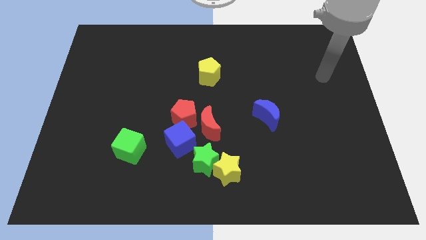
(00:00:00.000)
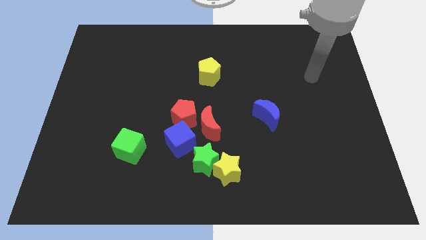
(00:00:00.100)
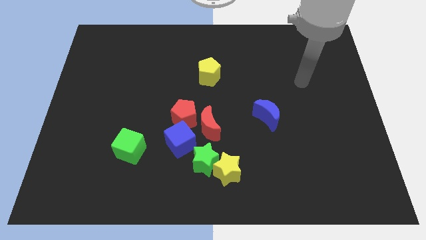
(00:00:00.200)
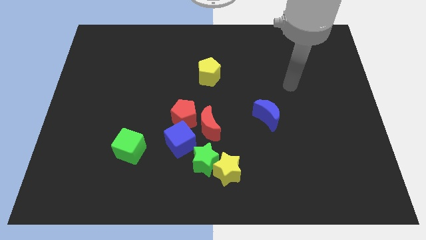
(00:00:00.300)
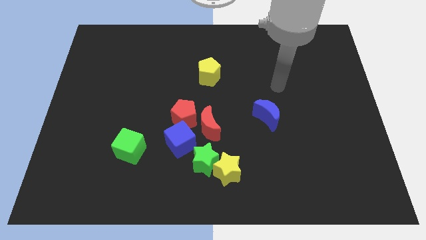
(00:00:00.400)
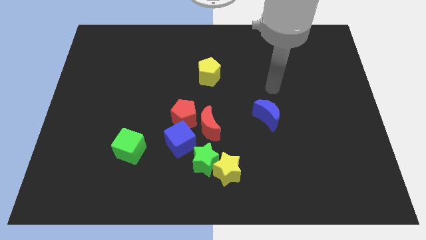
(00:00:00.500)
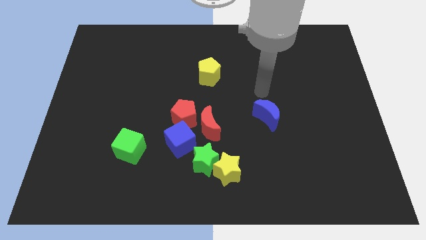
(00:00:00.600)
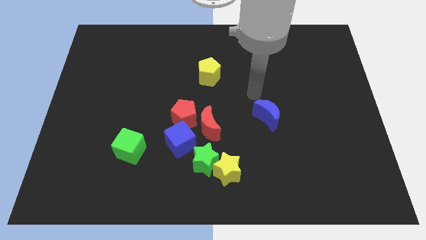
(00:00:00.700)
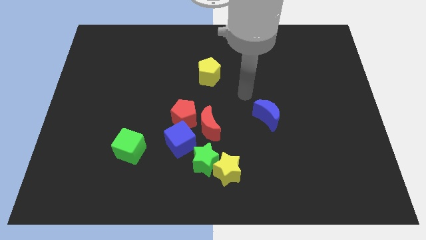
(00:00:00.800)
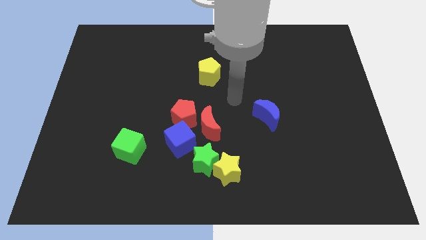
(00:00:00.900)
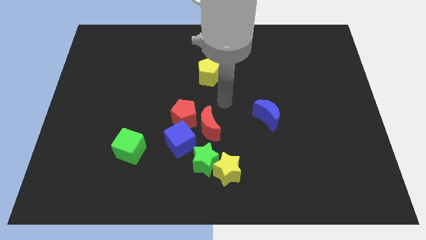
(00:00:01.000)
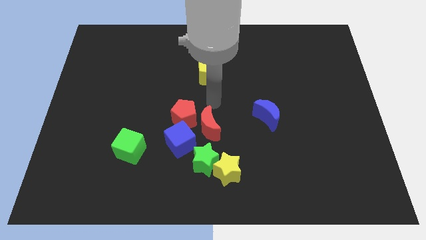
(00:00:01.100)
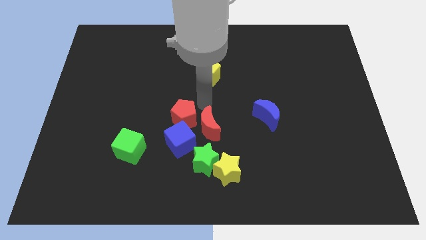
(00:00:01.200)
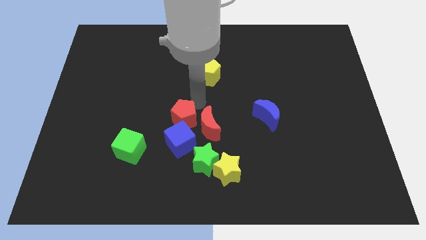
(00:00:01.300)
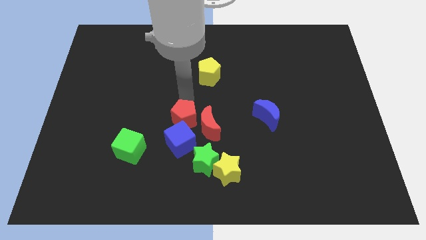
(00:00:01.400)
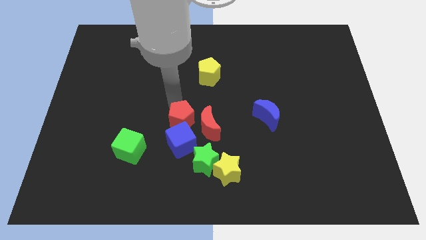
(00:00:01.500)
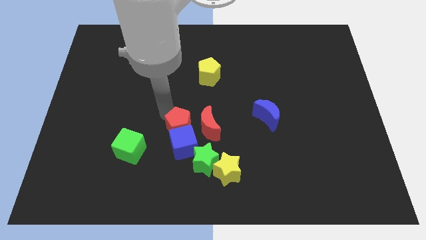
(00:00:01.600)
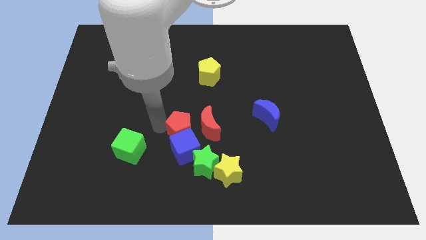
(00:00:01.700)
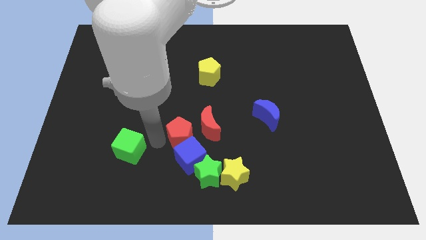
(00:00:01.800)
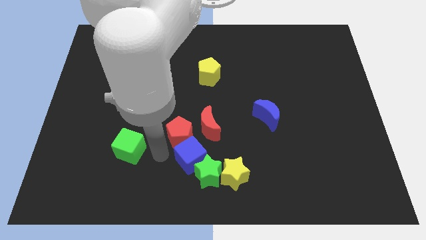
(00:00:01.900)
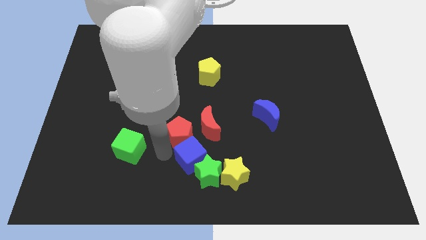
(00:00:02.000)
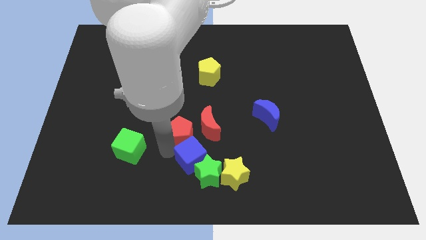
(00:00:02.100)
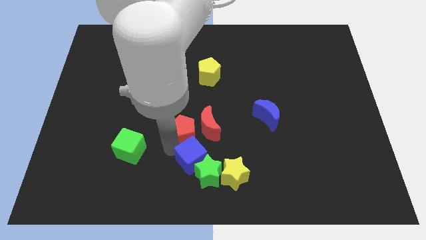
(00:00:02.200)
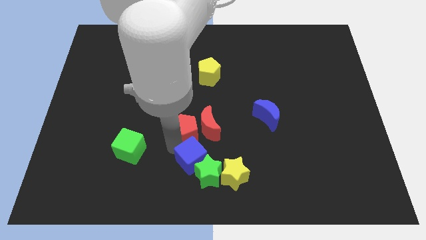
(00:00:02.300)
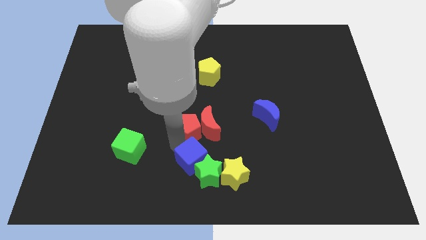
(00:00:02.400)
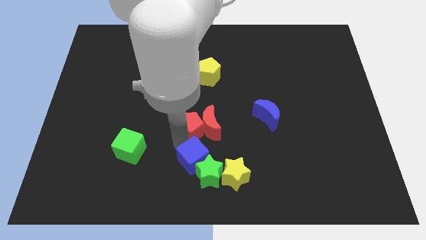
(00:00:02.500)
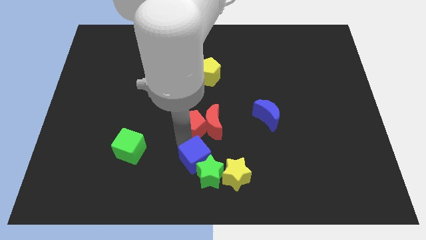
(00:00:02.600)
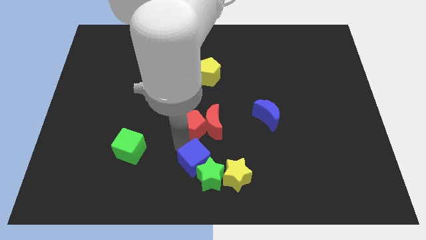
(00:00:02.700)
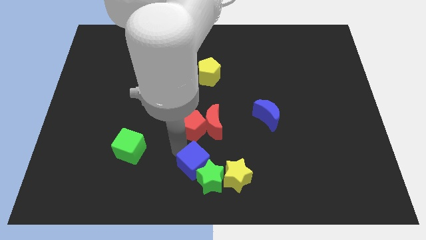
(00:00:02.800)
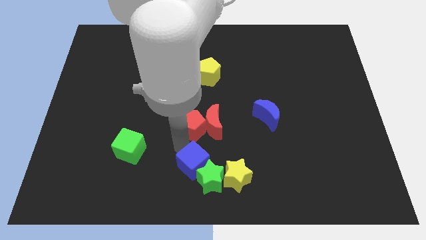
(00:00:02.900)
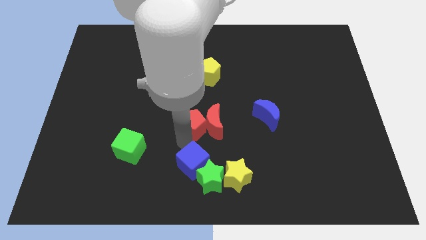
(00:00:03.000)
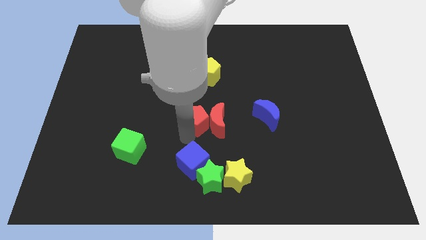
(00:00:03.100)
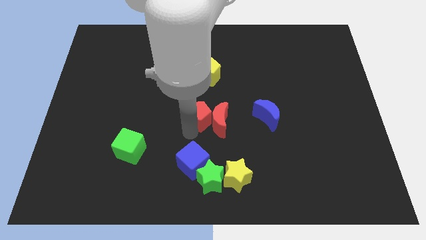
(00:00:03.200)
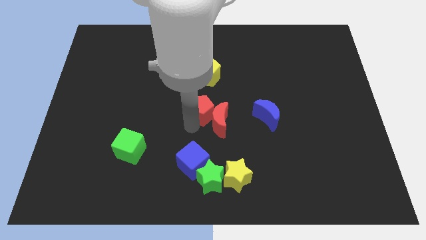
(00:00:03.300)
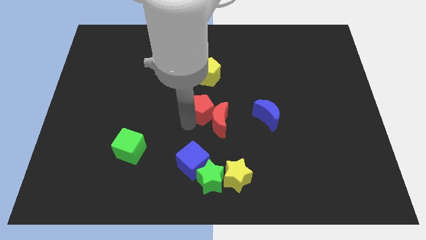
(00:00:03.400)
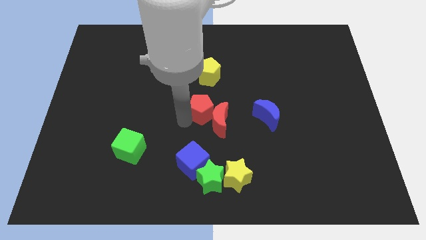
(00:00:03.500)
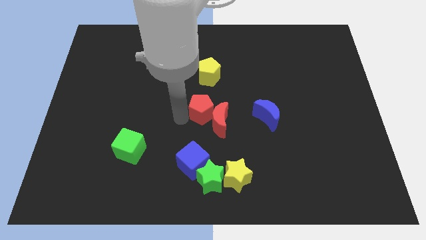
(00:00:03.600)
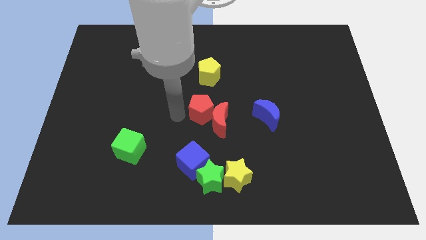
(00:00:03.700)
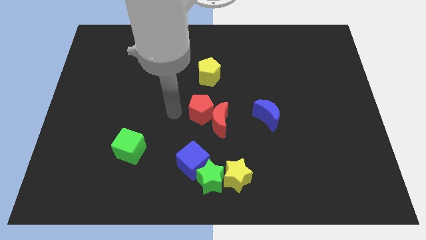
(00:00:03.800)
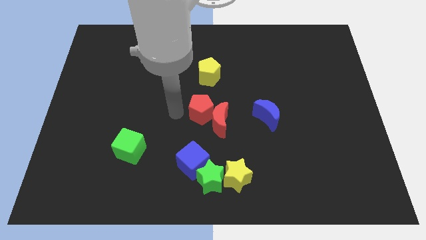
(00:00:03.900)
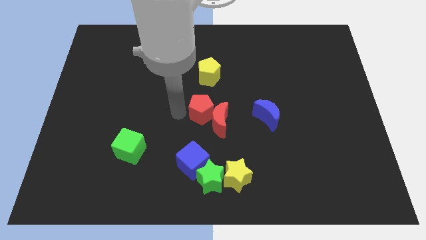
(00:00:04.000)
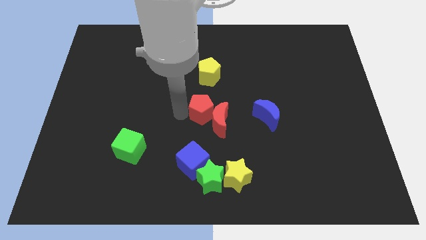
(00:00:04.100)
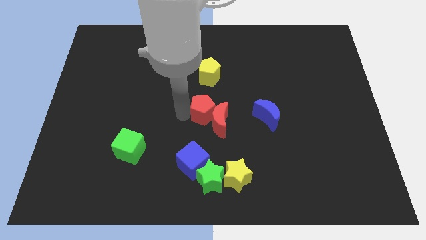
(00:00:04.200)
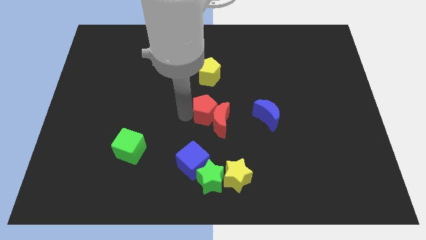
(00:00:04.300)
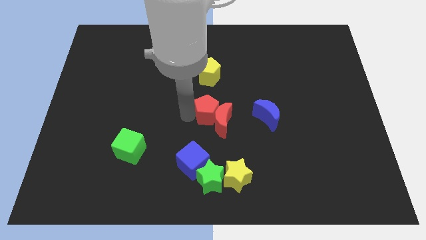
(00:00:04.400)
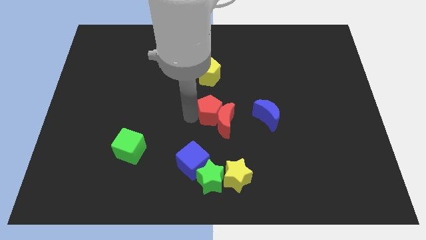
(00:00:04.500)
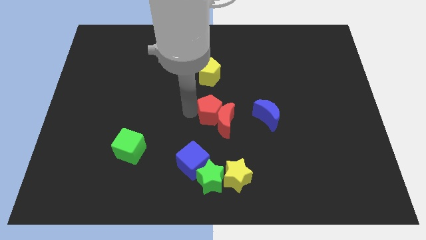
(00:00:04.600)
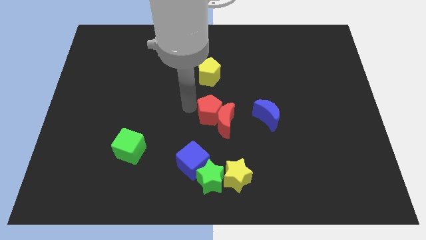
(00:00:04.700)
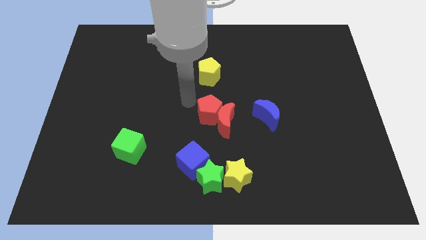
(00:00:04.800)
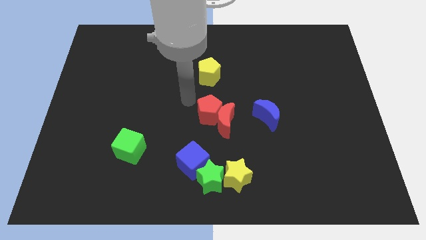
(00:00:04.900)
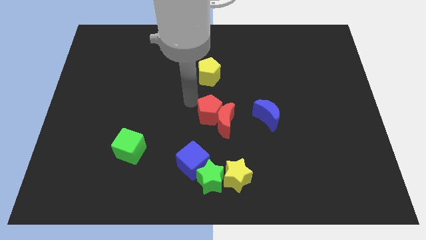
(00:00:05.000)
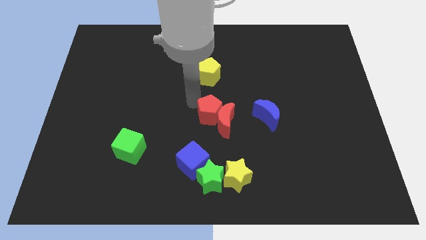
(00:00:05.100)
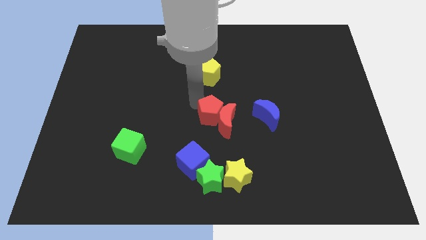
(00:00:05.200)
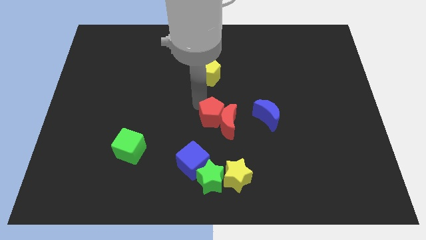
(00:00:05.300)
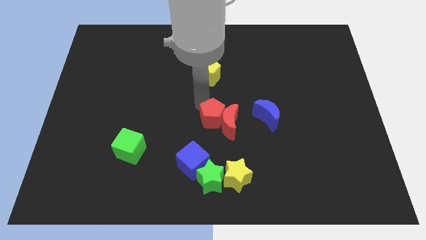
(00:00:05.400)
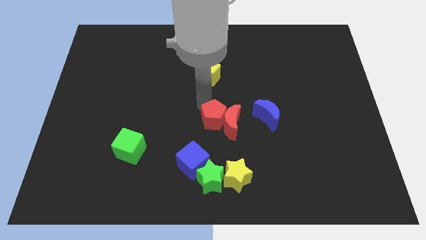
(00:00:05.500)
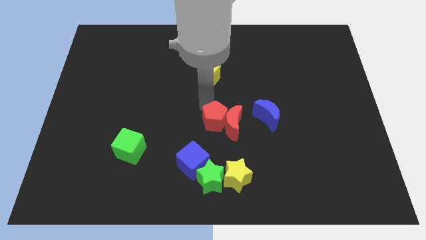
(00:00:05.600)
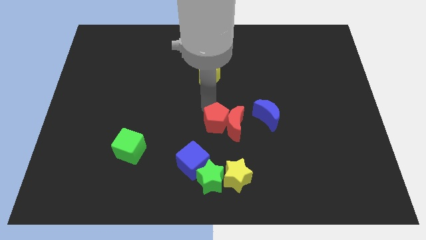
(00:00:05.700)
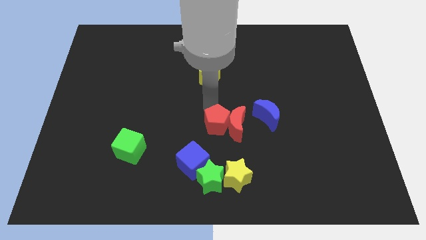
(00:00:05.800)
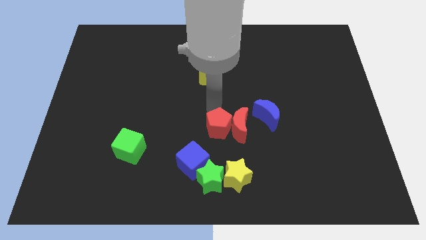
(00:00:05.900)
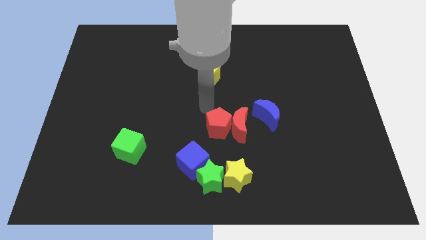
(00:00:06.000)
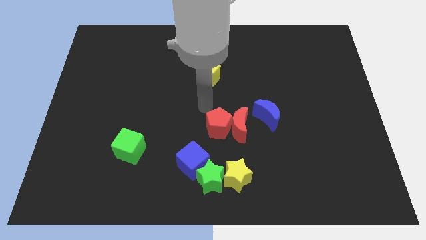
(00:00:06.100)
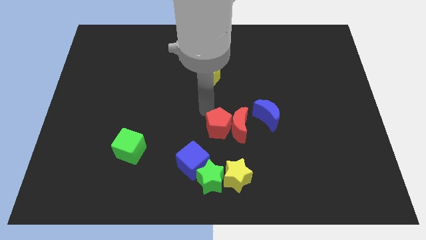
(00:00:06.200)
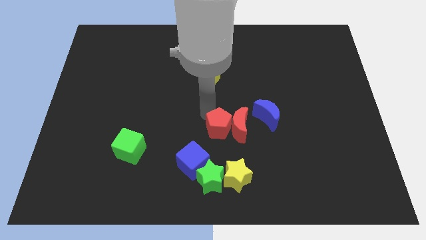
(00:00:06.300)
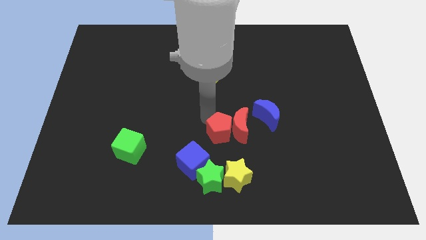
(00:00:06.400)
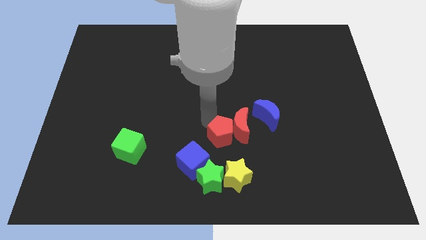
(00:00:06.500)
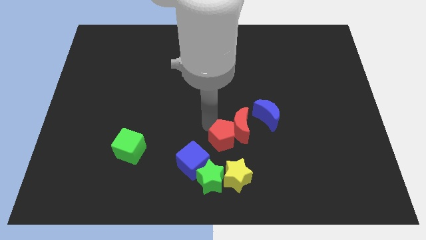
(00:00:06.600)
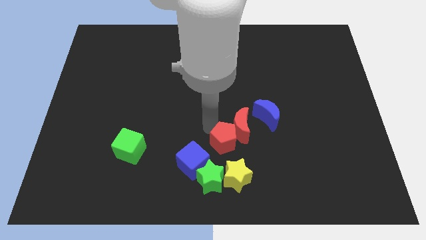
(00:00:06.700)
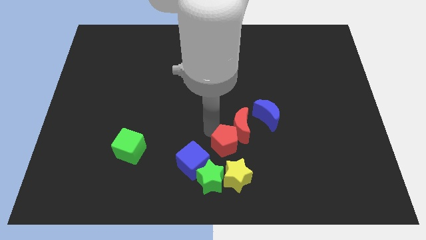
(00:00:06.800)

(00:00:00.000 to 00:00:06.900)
move the red pentagon right of the blue cube
